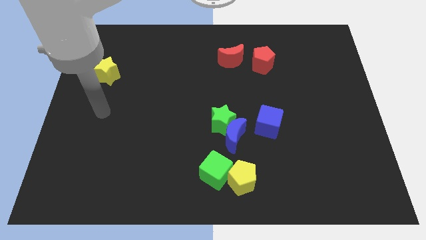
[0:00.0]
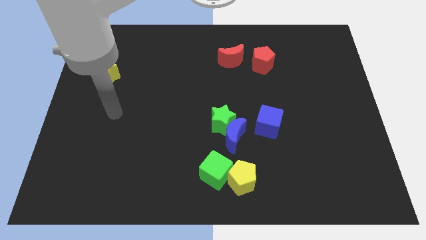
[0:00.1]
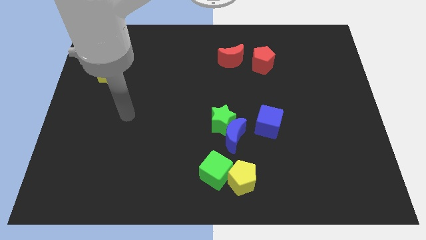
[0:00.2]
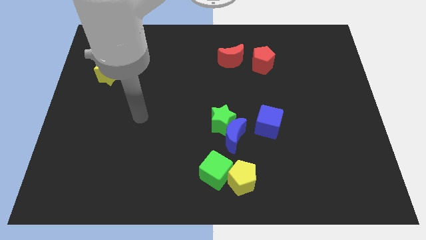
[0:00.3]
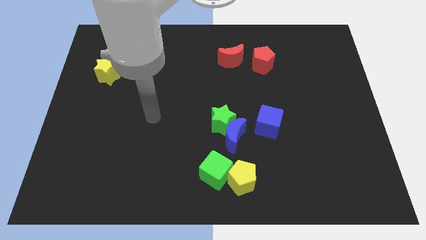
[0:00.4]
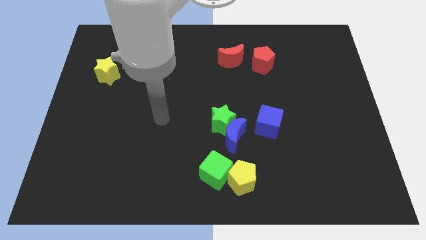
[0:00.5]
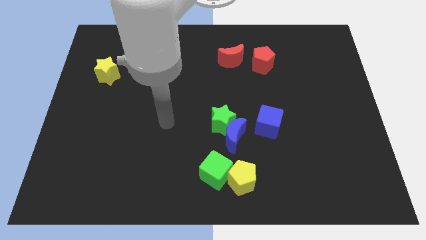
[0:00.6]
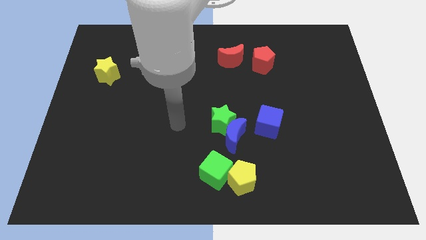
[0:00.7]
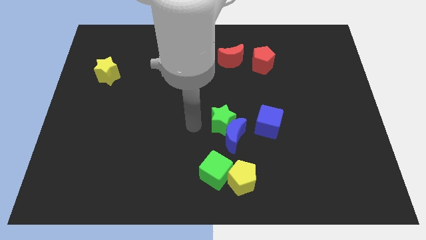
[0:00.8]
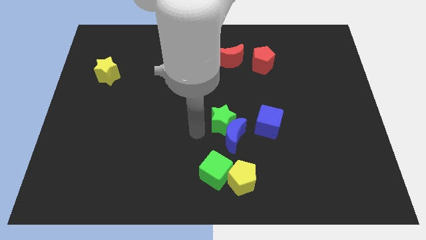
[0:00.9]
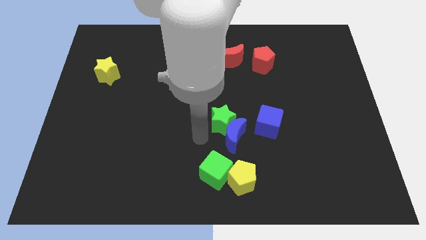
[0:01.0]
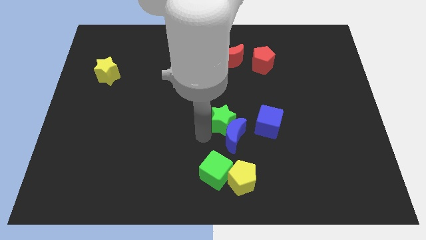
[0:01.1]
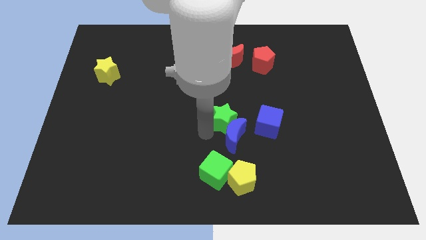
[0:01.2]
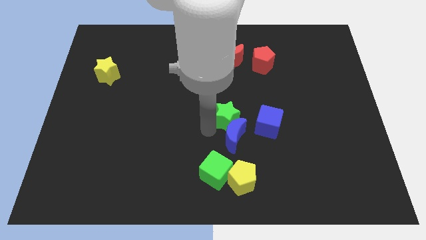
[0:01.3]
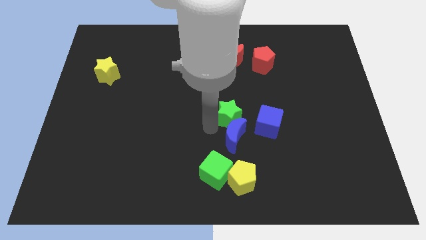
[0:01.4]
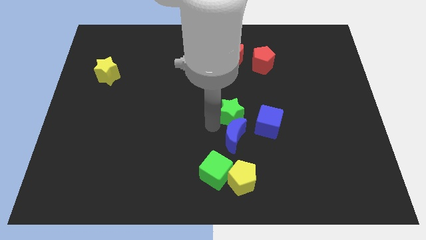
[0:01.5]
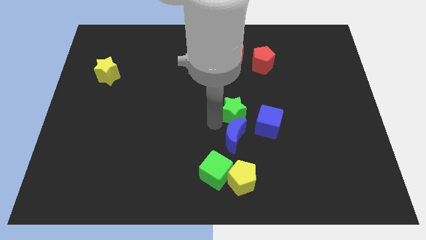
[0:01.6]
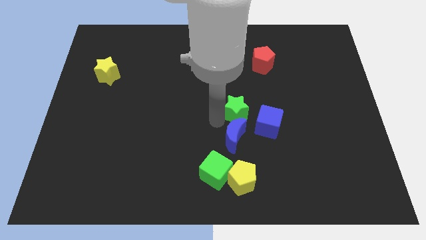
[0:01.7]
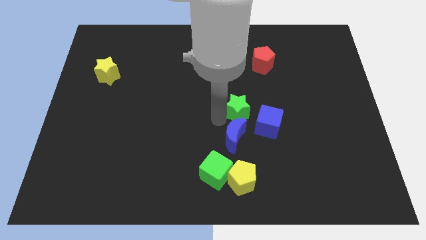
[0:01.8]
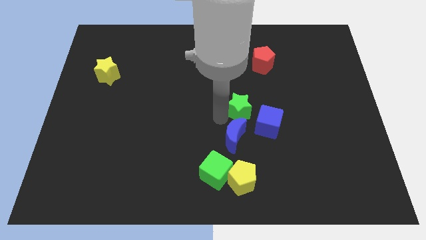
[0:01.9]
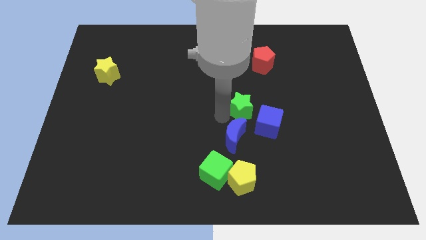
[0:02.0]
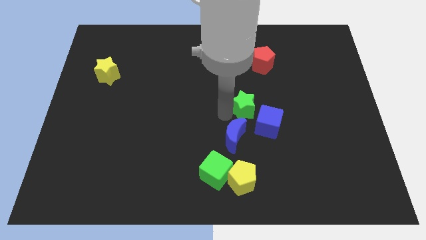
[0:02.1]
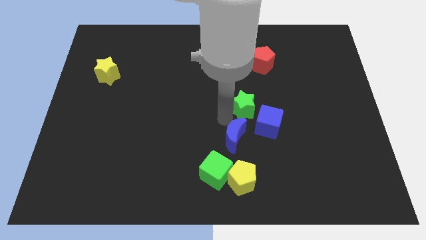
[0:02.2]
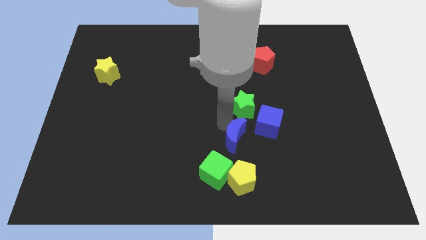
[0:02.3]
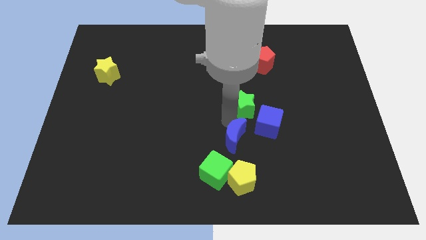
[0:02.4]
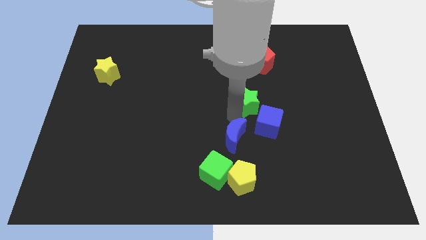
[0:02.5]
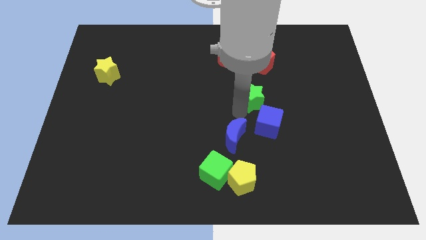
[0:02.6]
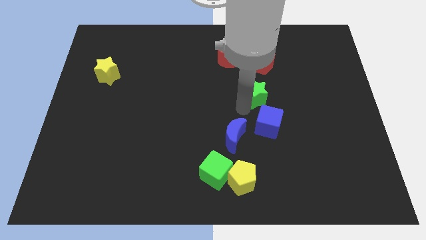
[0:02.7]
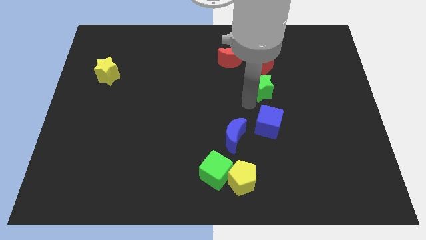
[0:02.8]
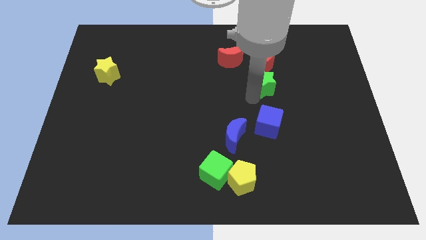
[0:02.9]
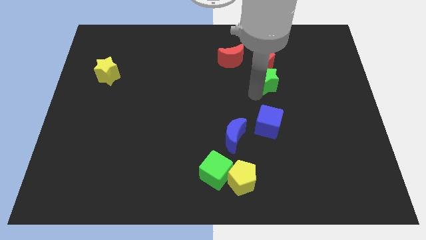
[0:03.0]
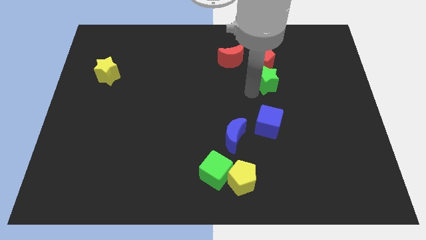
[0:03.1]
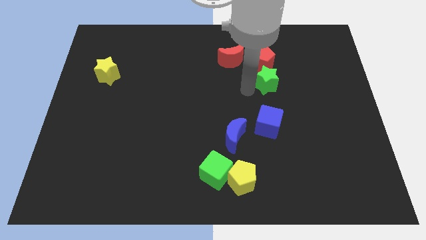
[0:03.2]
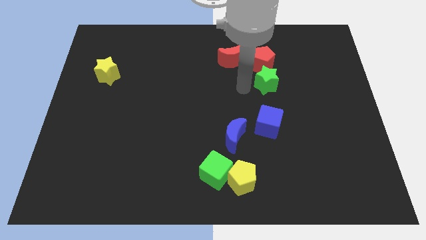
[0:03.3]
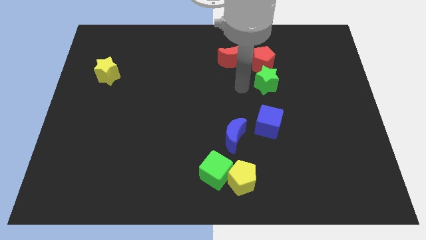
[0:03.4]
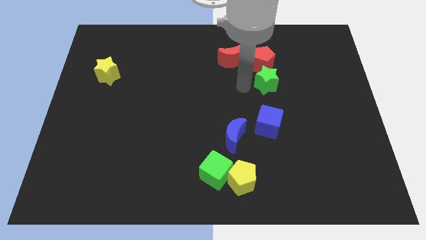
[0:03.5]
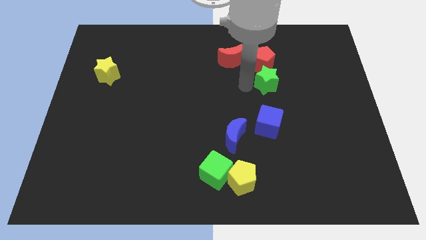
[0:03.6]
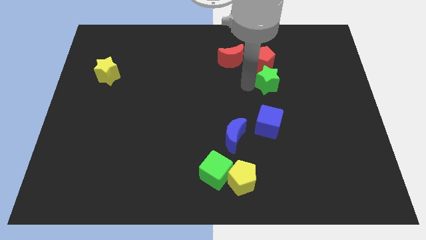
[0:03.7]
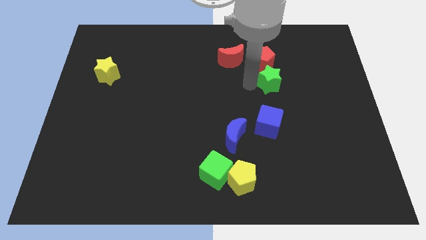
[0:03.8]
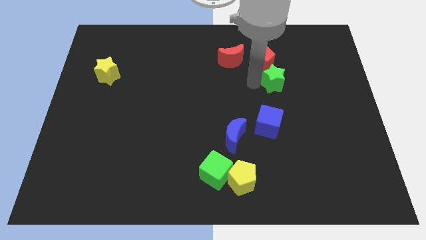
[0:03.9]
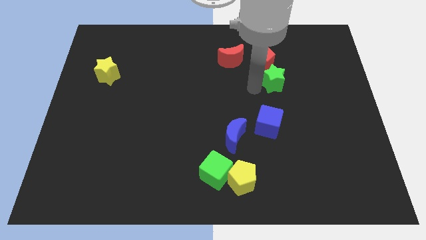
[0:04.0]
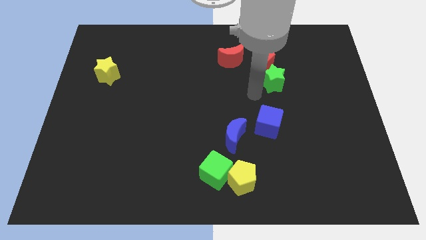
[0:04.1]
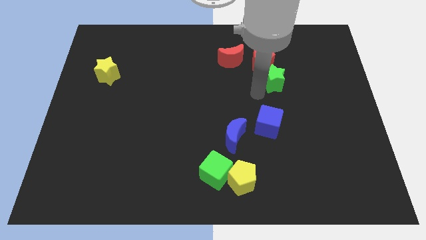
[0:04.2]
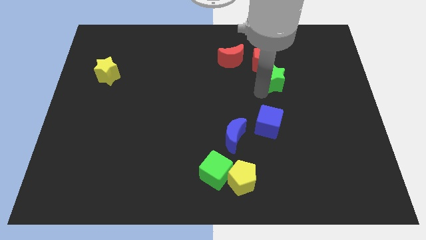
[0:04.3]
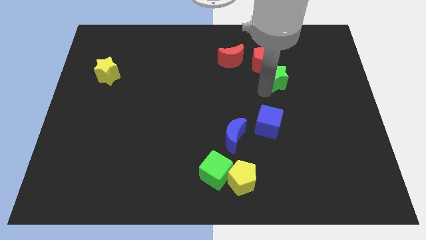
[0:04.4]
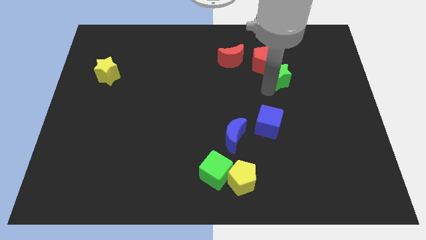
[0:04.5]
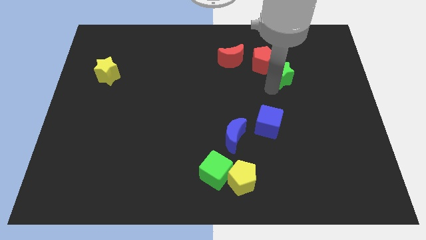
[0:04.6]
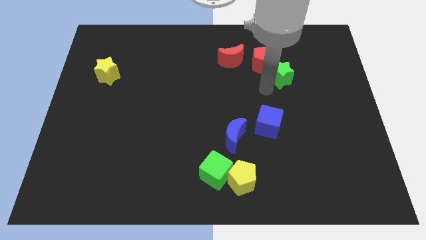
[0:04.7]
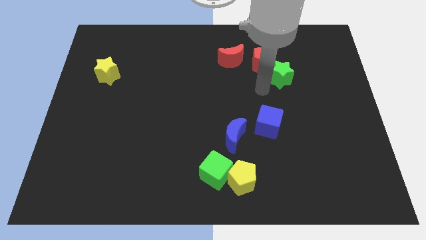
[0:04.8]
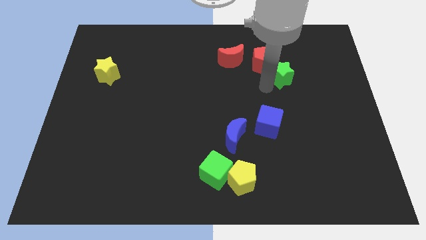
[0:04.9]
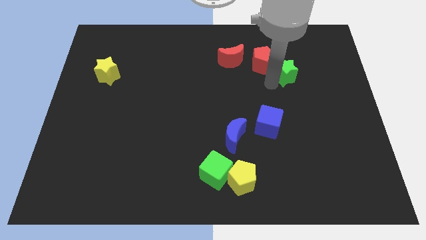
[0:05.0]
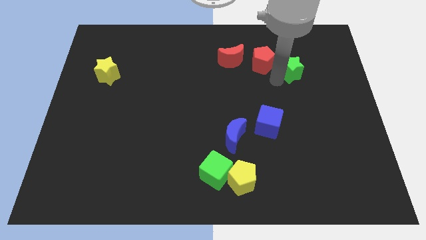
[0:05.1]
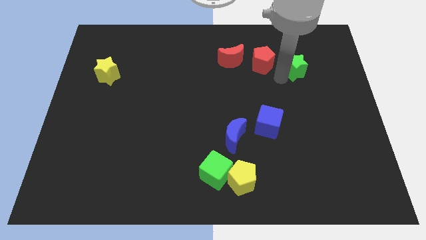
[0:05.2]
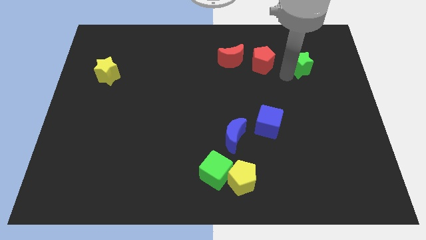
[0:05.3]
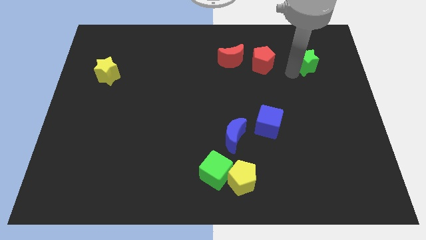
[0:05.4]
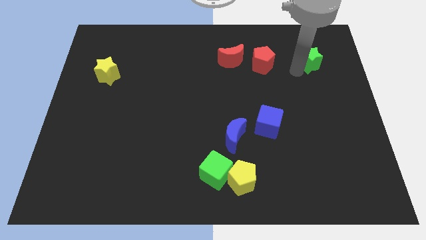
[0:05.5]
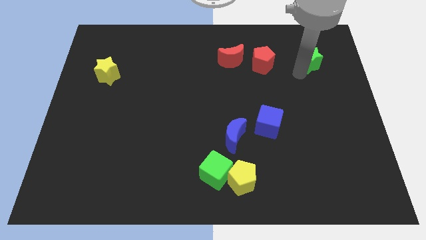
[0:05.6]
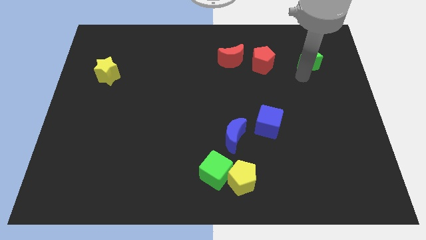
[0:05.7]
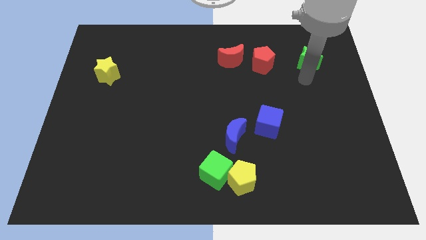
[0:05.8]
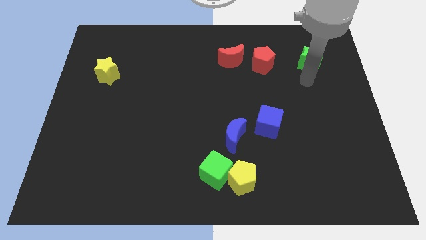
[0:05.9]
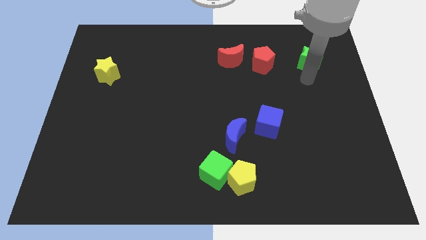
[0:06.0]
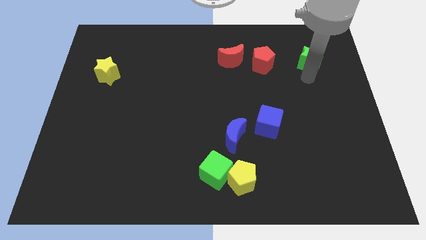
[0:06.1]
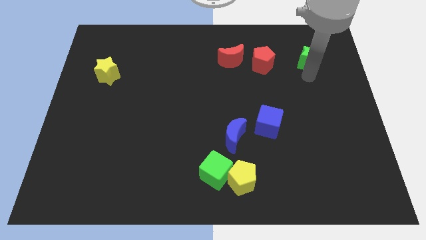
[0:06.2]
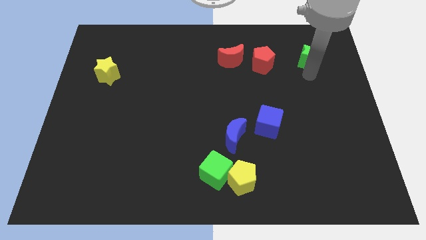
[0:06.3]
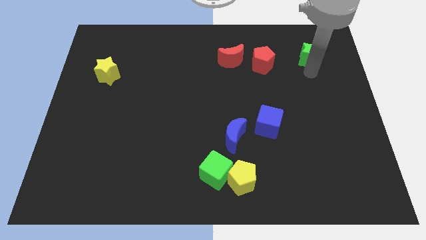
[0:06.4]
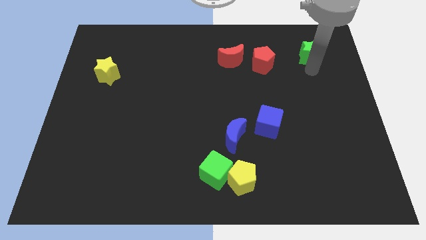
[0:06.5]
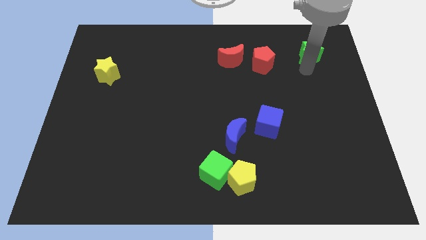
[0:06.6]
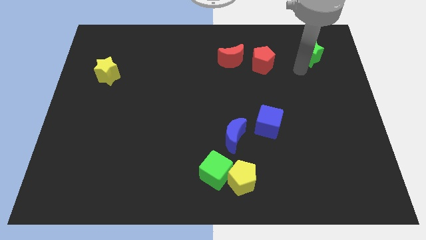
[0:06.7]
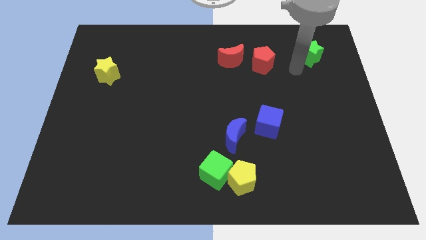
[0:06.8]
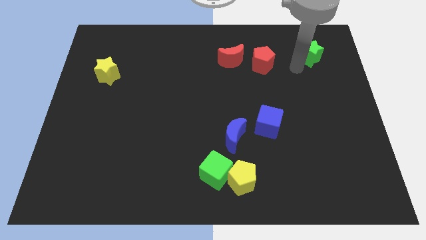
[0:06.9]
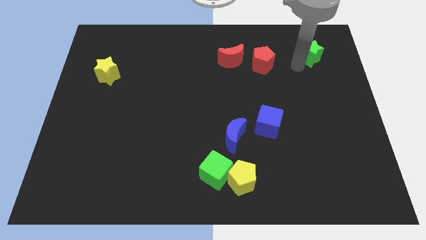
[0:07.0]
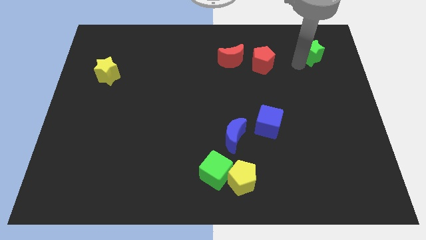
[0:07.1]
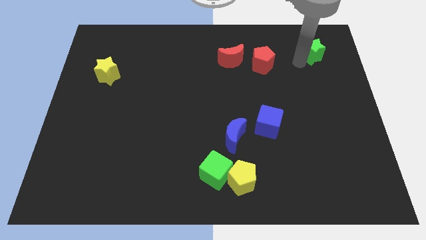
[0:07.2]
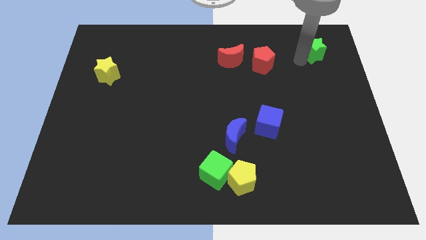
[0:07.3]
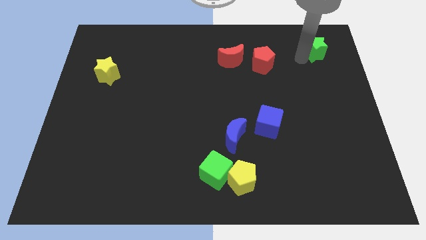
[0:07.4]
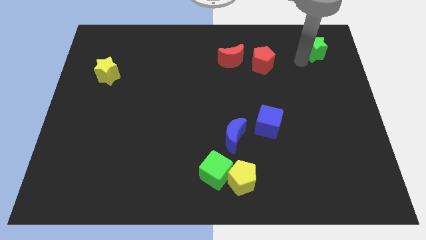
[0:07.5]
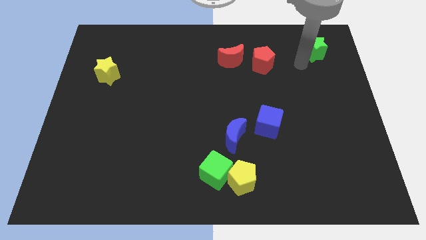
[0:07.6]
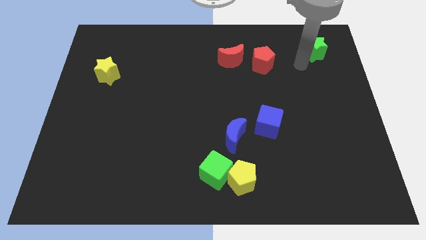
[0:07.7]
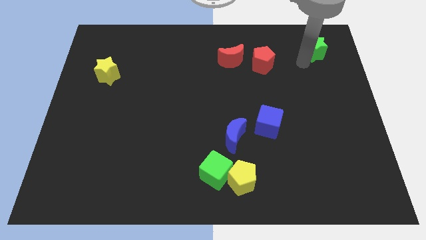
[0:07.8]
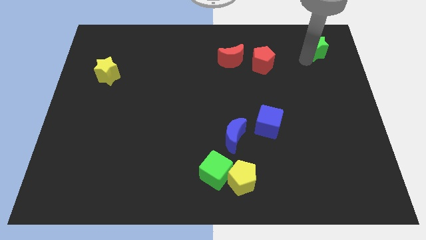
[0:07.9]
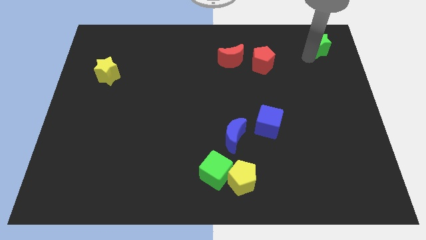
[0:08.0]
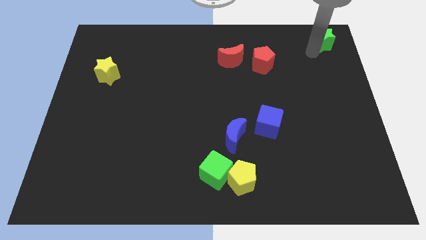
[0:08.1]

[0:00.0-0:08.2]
move the green star to the top right of the board
